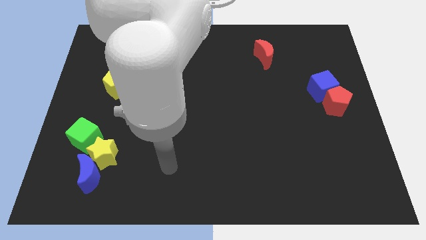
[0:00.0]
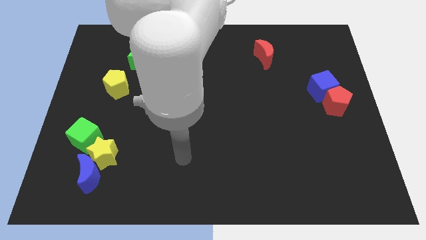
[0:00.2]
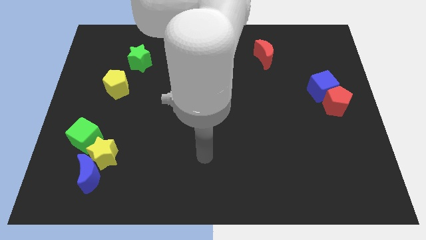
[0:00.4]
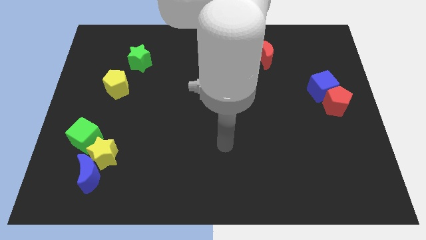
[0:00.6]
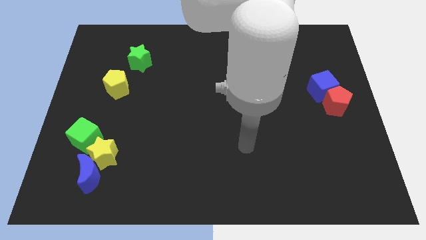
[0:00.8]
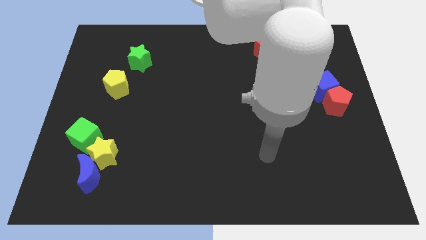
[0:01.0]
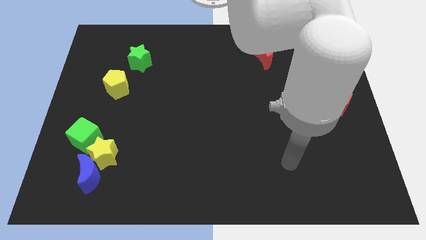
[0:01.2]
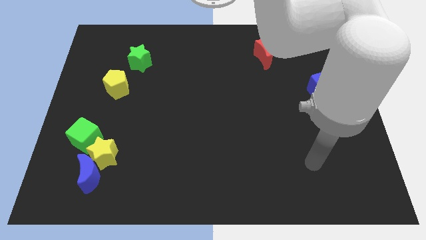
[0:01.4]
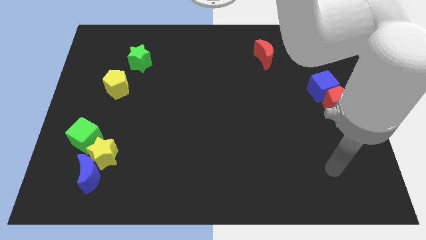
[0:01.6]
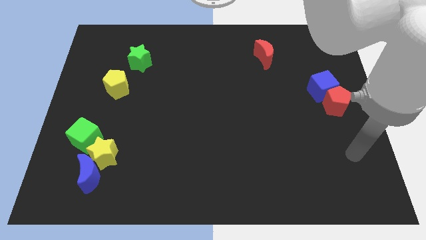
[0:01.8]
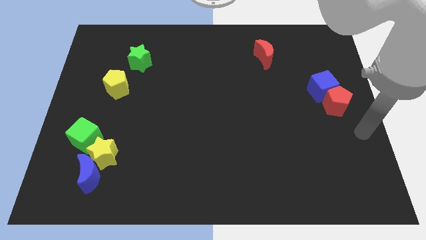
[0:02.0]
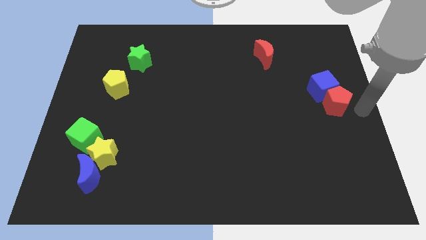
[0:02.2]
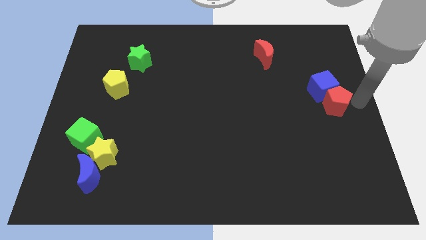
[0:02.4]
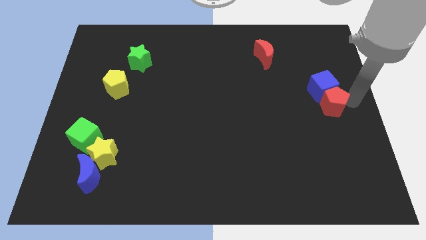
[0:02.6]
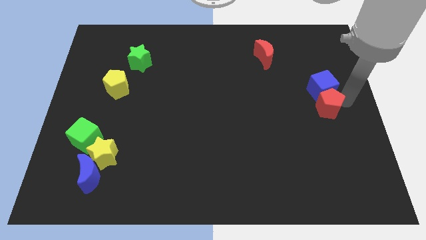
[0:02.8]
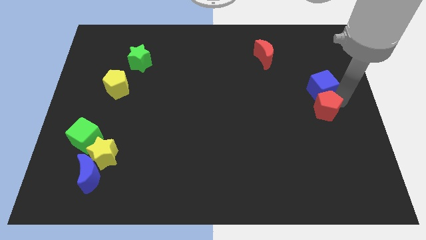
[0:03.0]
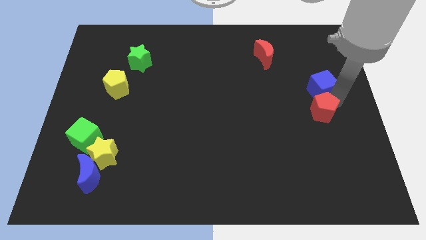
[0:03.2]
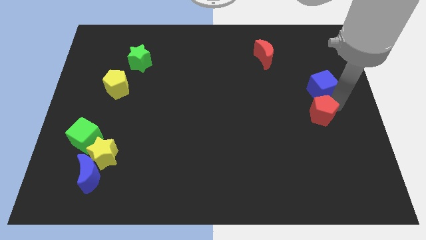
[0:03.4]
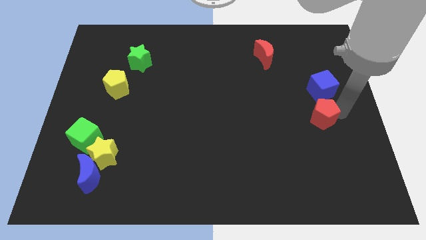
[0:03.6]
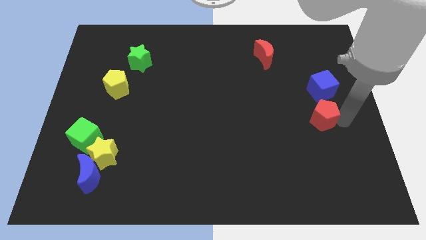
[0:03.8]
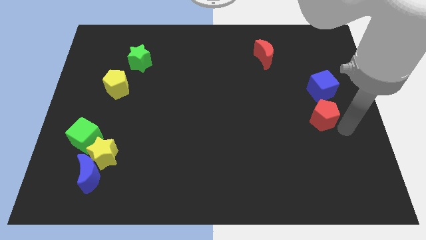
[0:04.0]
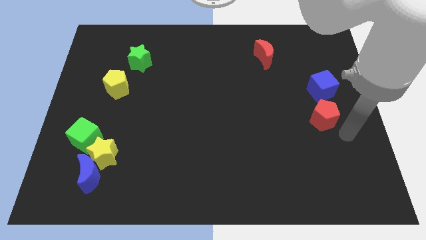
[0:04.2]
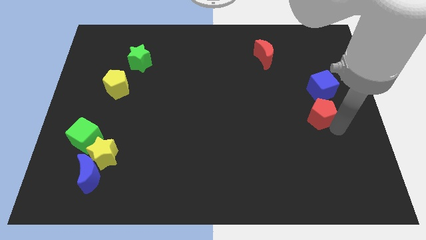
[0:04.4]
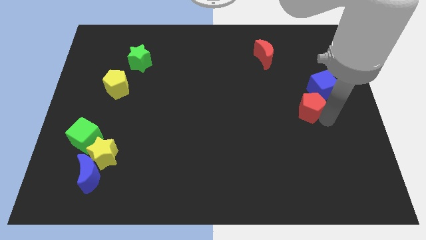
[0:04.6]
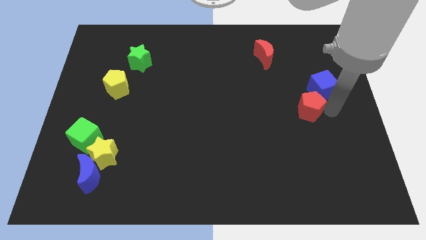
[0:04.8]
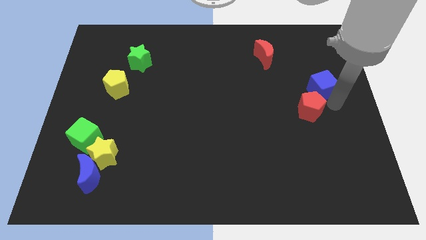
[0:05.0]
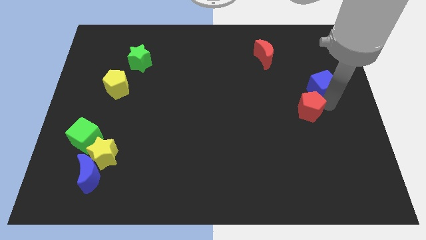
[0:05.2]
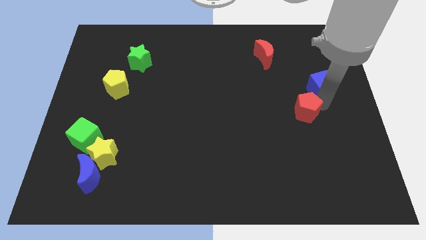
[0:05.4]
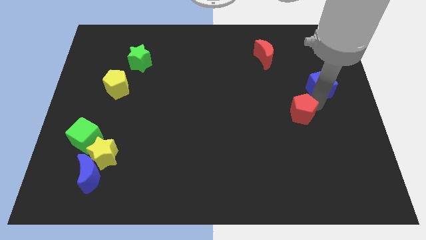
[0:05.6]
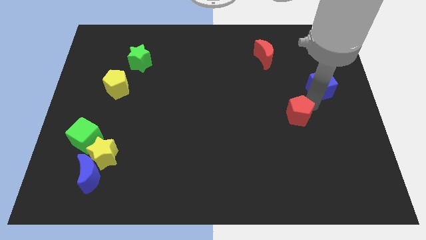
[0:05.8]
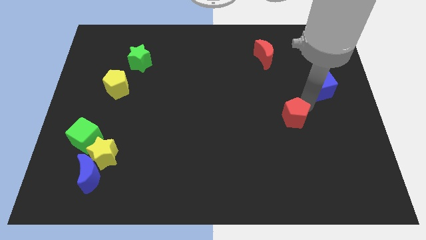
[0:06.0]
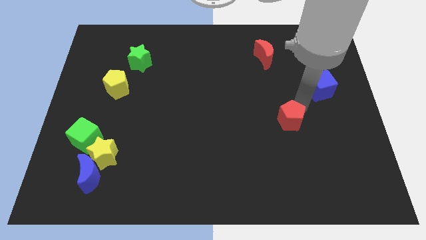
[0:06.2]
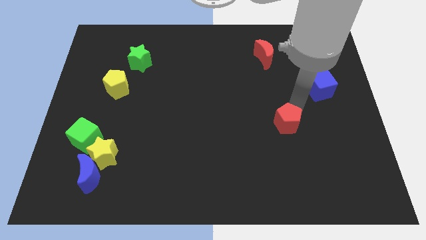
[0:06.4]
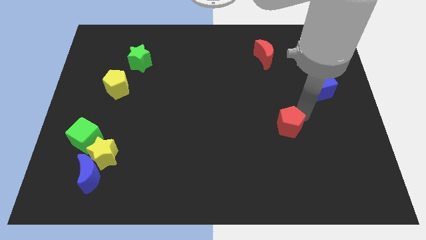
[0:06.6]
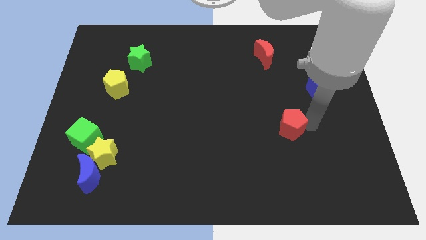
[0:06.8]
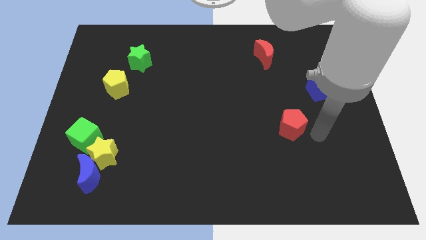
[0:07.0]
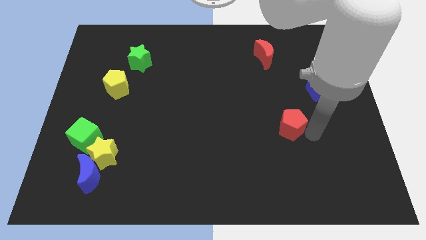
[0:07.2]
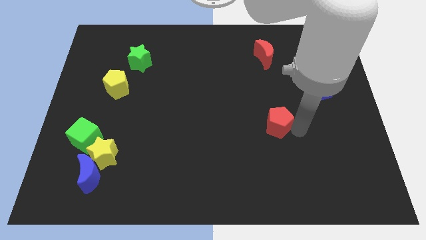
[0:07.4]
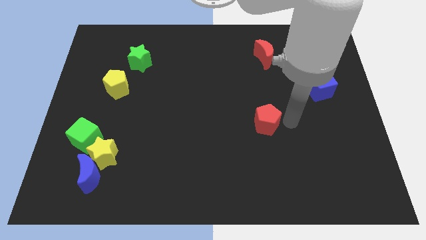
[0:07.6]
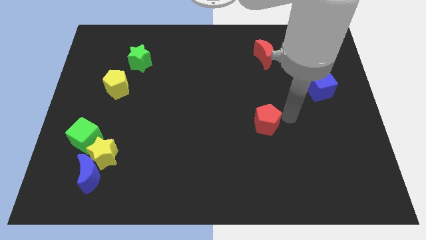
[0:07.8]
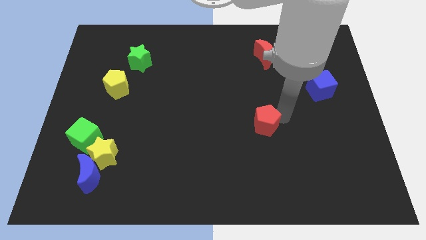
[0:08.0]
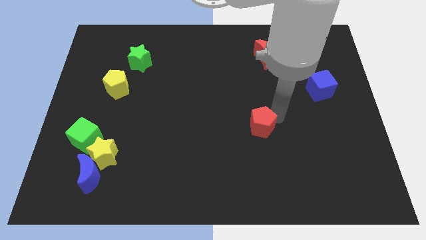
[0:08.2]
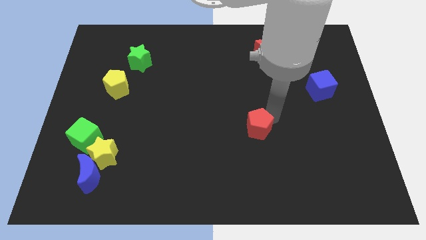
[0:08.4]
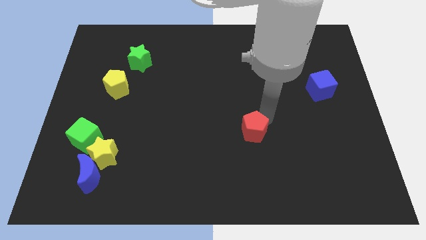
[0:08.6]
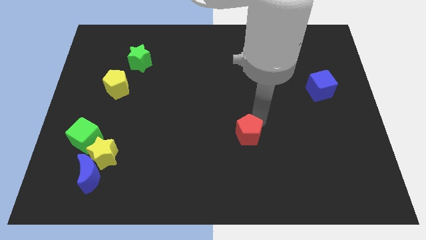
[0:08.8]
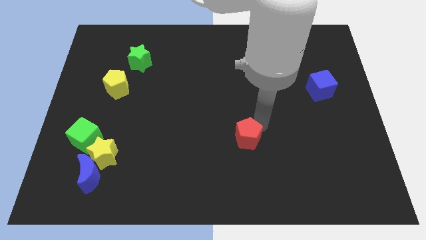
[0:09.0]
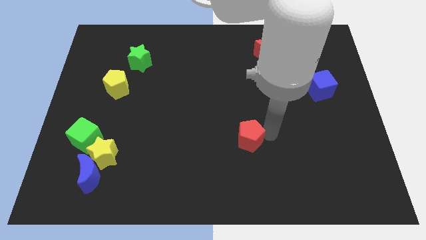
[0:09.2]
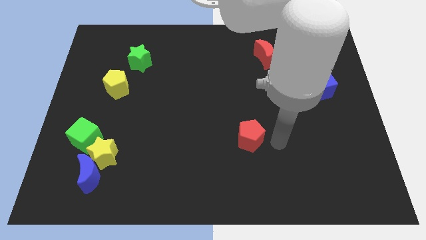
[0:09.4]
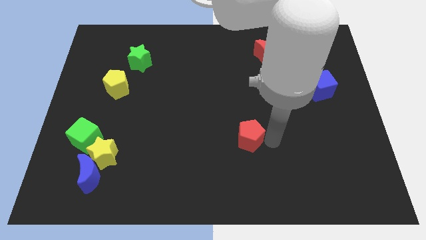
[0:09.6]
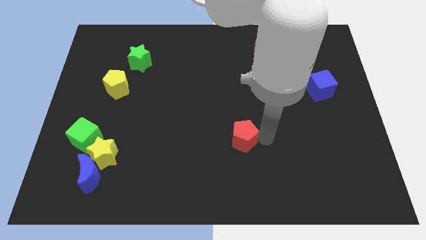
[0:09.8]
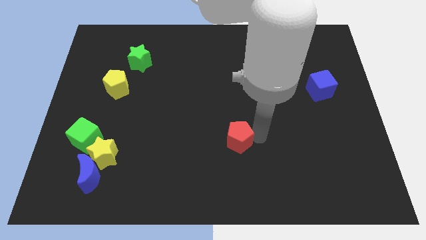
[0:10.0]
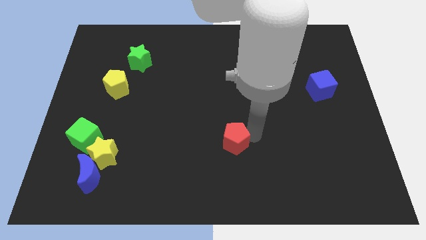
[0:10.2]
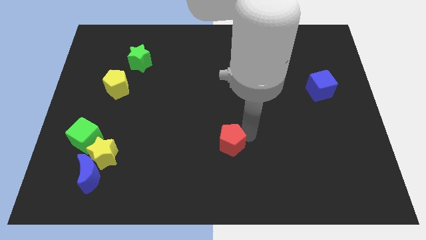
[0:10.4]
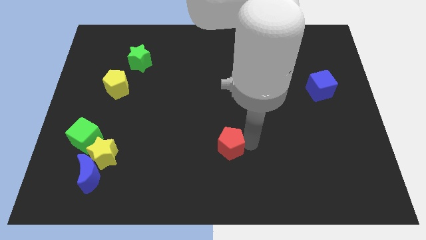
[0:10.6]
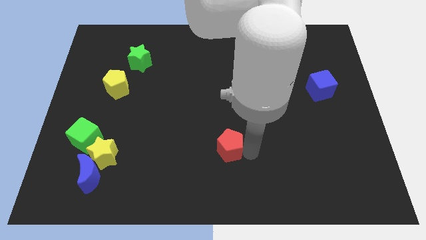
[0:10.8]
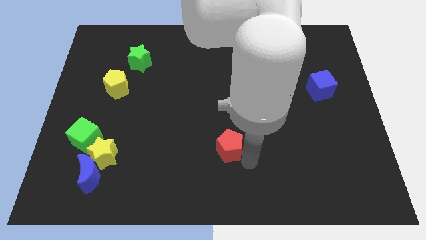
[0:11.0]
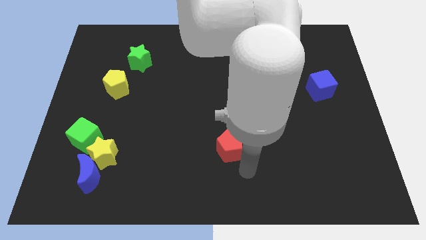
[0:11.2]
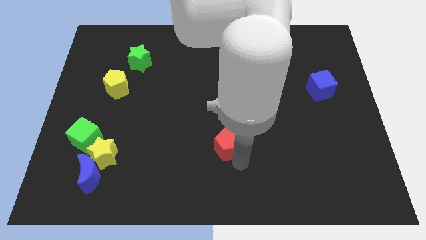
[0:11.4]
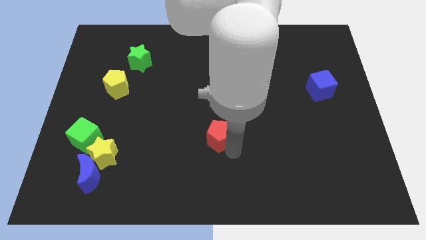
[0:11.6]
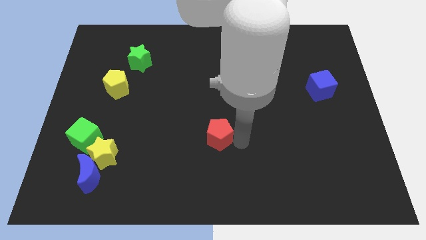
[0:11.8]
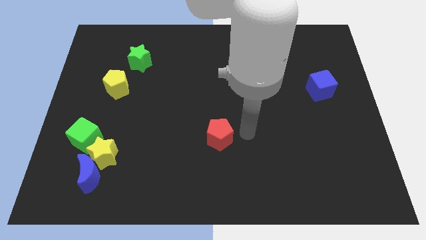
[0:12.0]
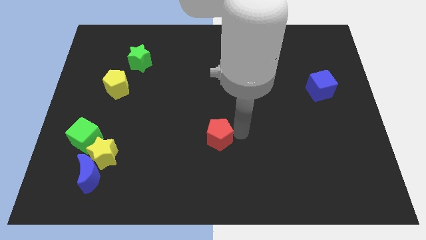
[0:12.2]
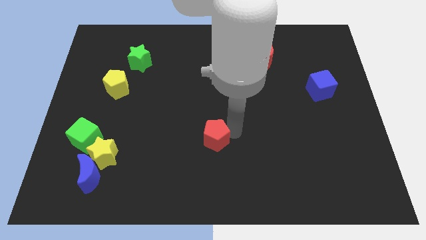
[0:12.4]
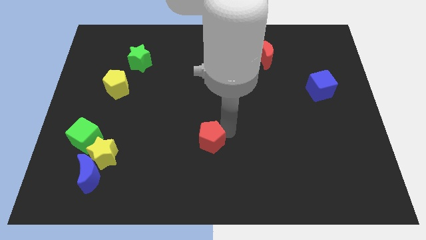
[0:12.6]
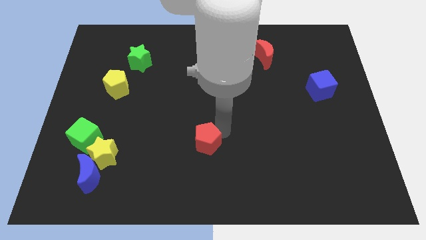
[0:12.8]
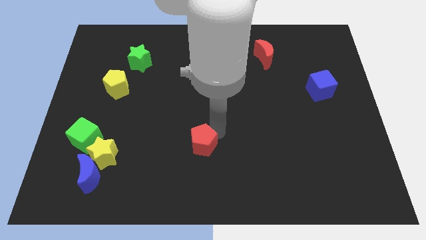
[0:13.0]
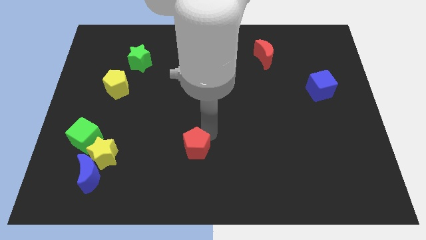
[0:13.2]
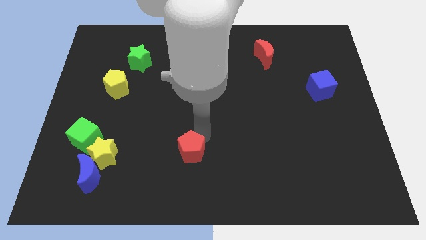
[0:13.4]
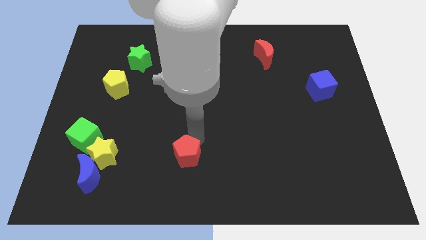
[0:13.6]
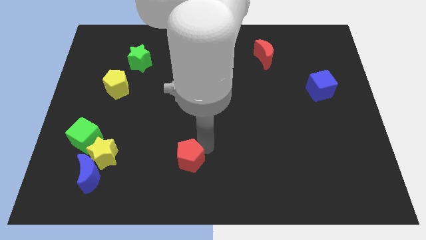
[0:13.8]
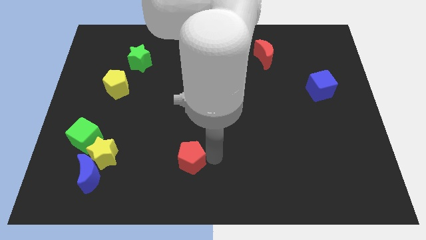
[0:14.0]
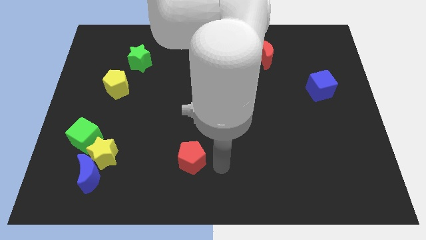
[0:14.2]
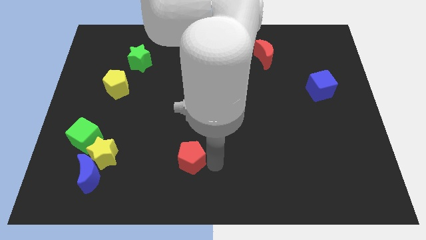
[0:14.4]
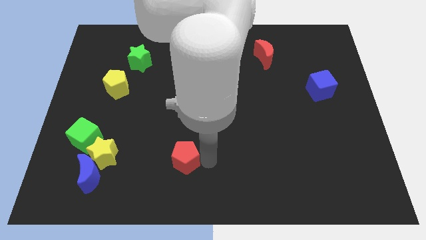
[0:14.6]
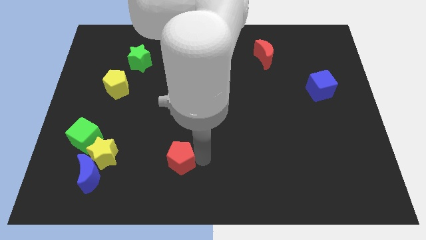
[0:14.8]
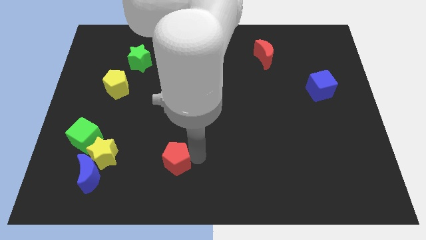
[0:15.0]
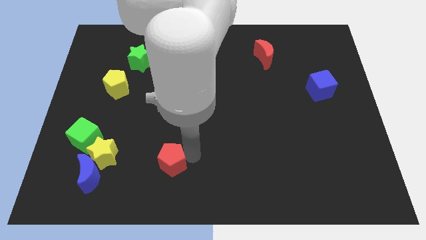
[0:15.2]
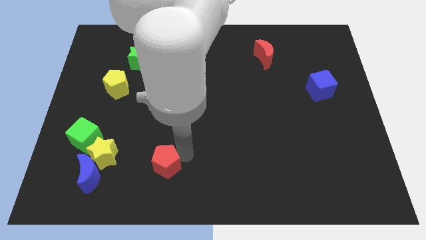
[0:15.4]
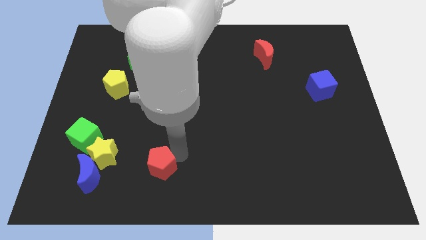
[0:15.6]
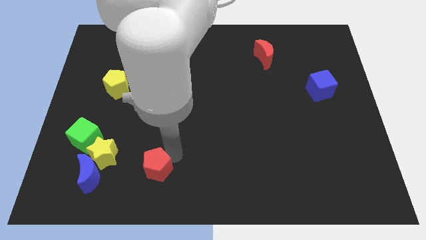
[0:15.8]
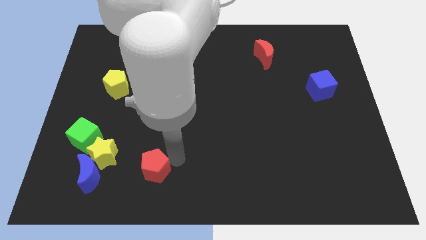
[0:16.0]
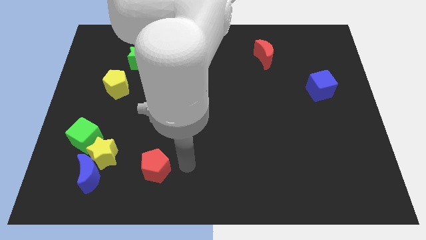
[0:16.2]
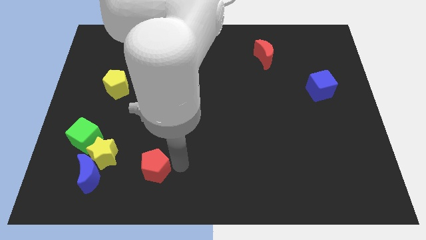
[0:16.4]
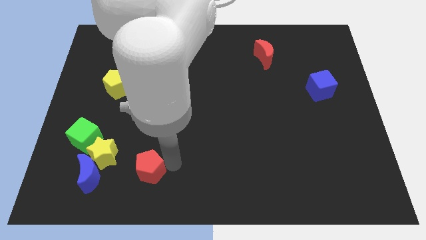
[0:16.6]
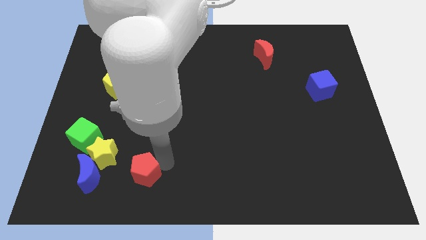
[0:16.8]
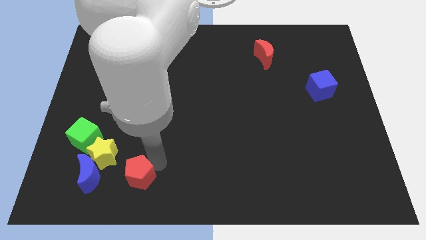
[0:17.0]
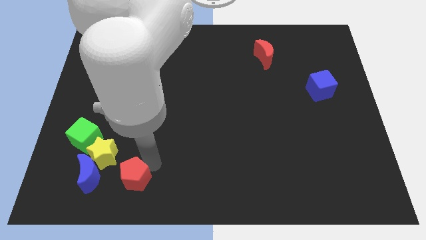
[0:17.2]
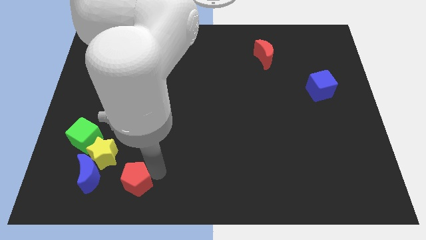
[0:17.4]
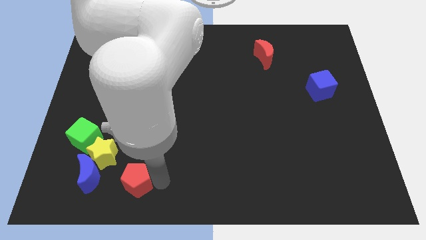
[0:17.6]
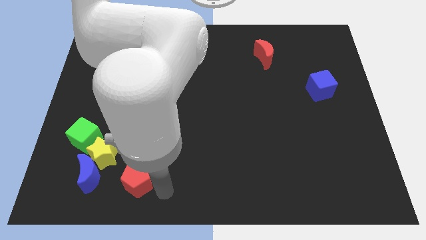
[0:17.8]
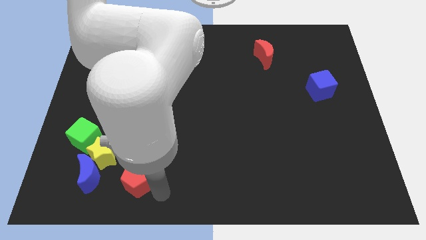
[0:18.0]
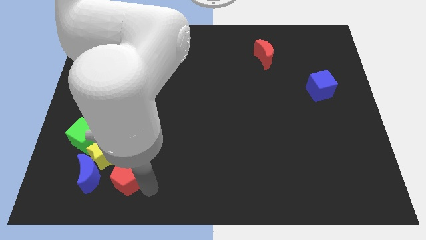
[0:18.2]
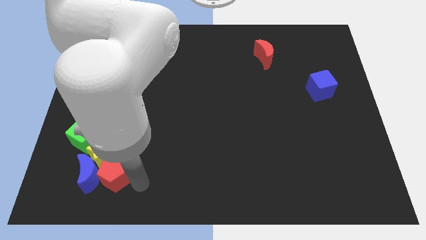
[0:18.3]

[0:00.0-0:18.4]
move the red pentagon towards the blue moon
